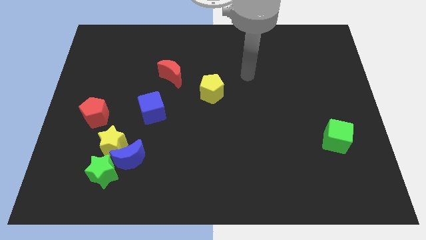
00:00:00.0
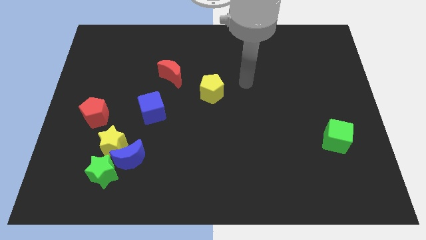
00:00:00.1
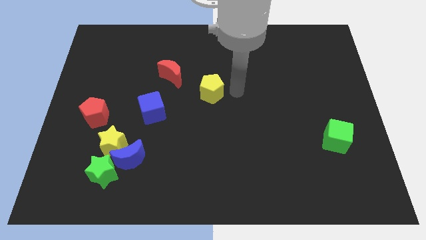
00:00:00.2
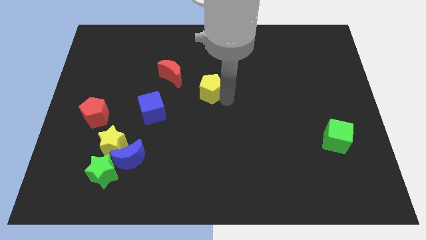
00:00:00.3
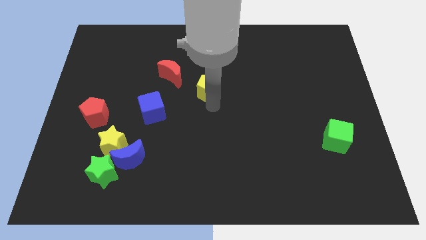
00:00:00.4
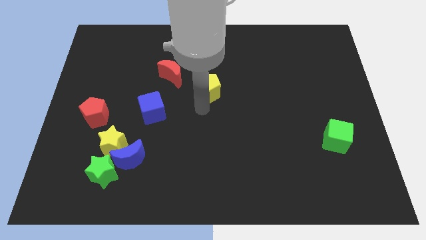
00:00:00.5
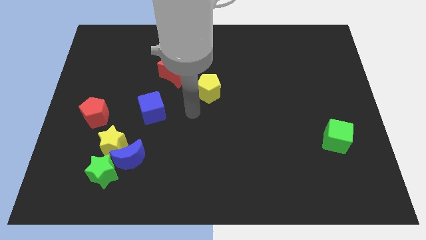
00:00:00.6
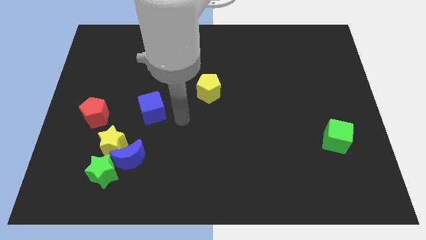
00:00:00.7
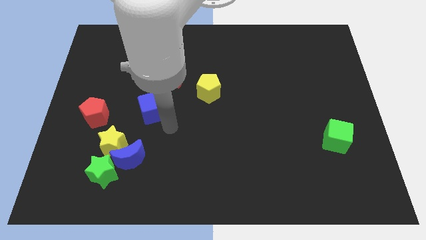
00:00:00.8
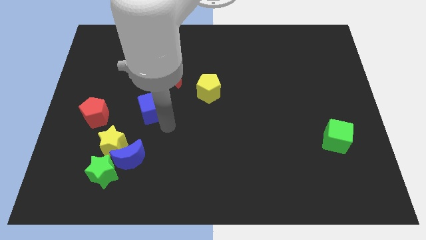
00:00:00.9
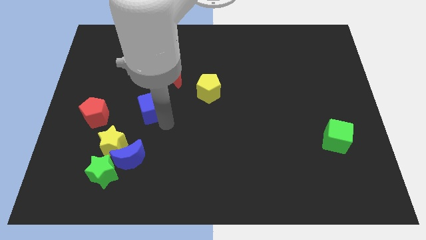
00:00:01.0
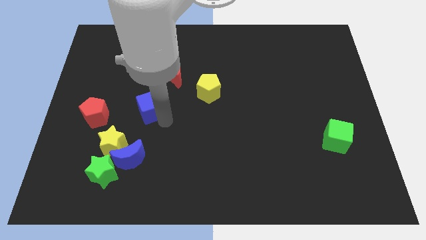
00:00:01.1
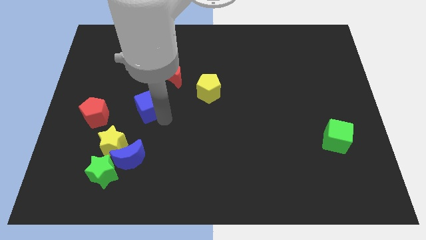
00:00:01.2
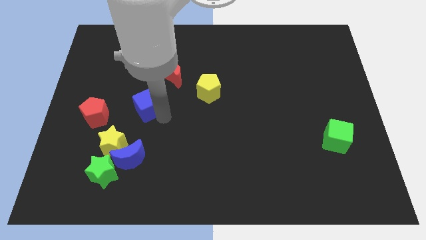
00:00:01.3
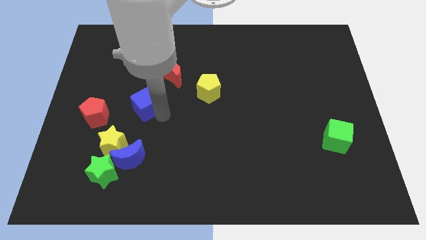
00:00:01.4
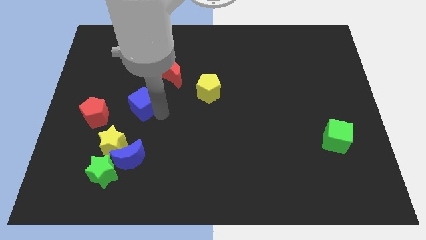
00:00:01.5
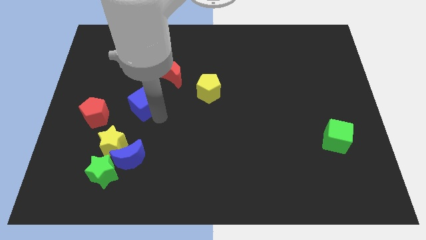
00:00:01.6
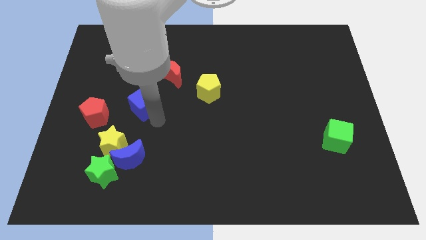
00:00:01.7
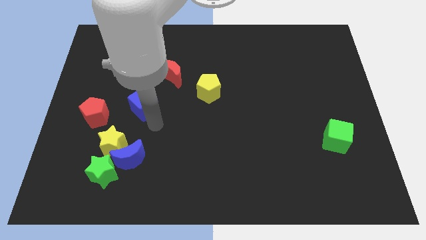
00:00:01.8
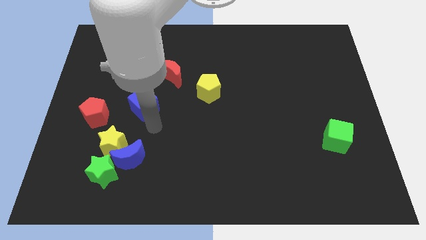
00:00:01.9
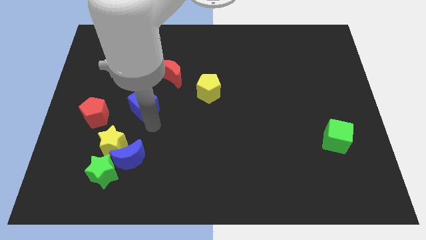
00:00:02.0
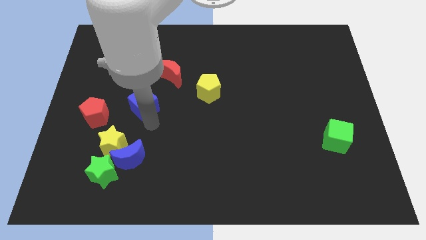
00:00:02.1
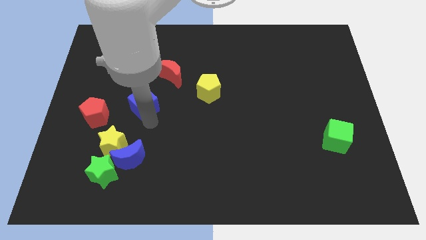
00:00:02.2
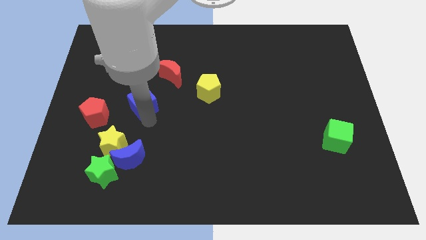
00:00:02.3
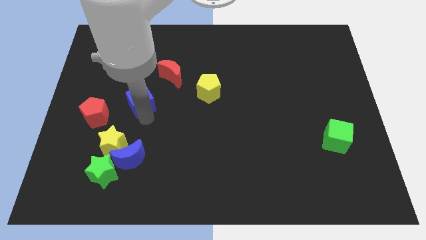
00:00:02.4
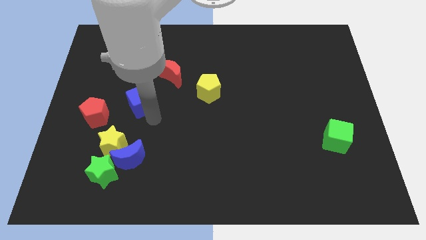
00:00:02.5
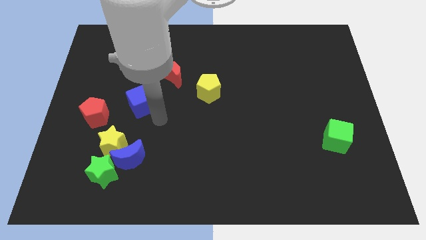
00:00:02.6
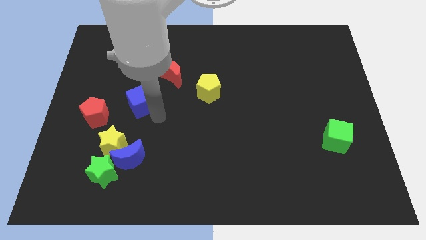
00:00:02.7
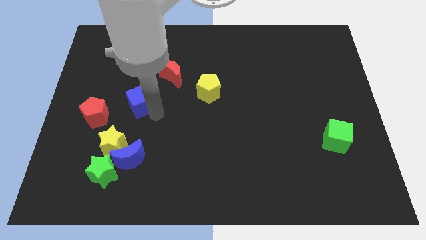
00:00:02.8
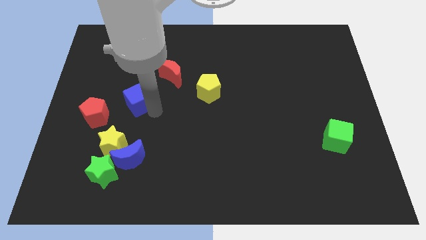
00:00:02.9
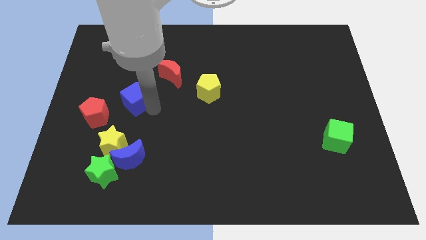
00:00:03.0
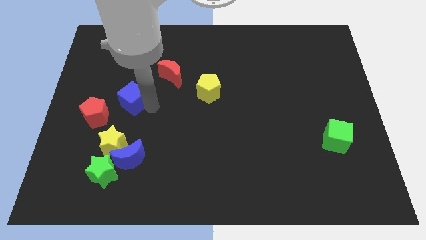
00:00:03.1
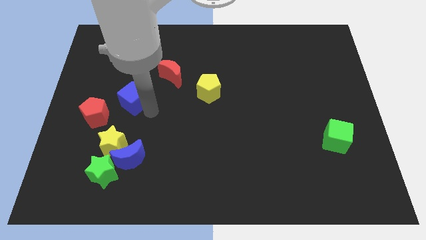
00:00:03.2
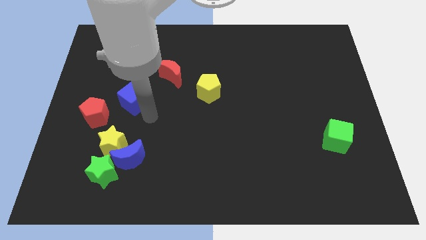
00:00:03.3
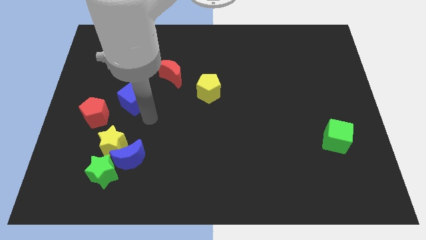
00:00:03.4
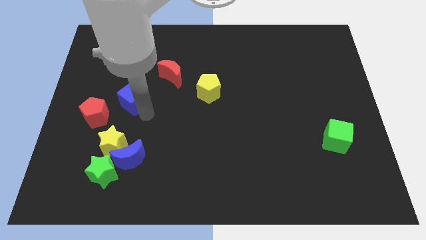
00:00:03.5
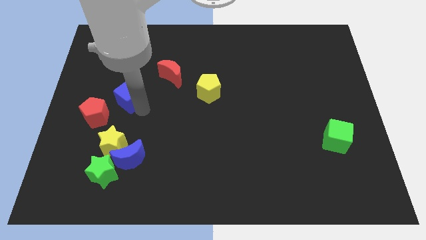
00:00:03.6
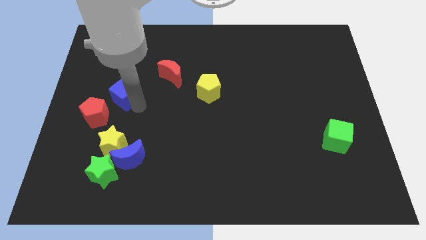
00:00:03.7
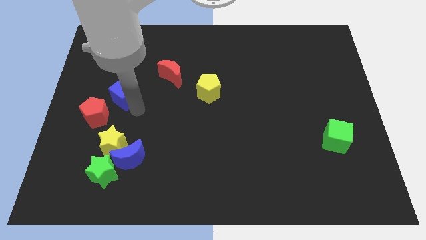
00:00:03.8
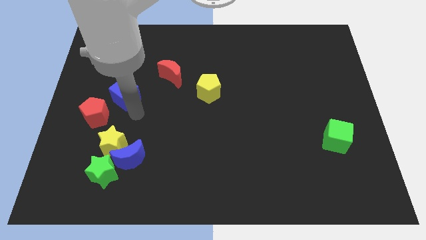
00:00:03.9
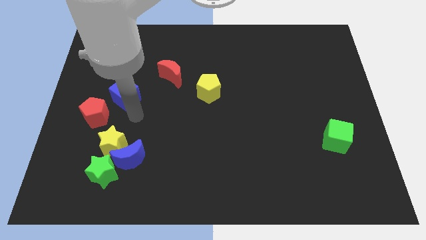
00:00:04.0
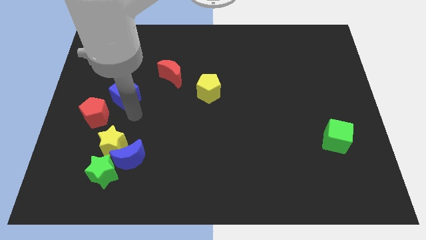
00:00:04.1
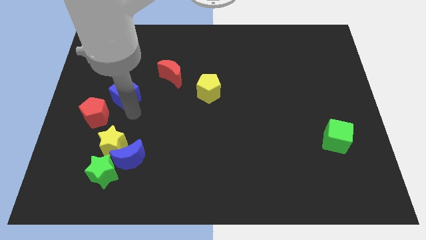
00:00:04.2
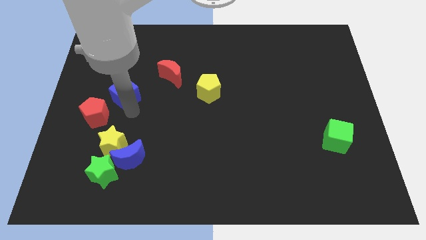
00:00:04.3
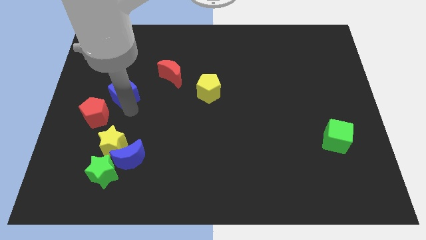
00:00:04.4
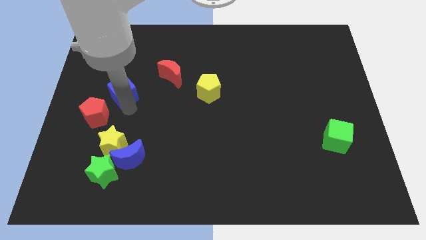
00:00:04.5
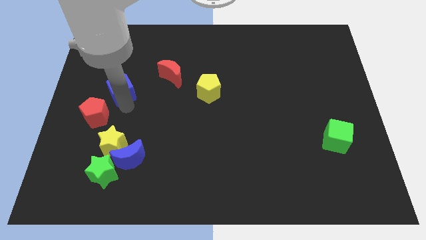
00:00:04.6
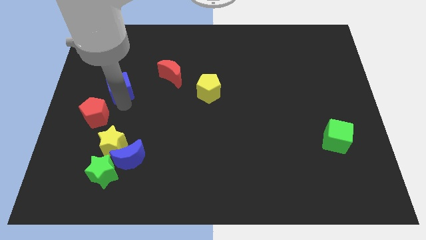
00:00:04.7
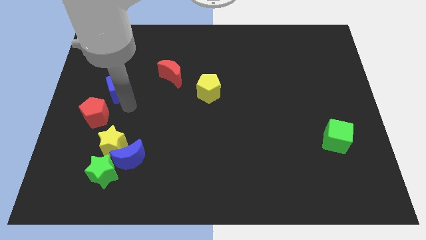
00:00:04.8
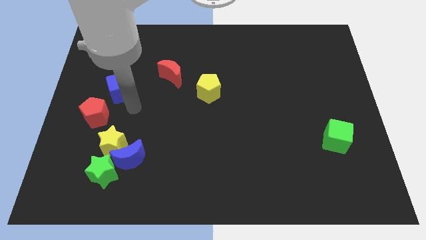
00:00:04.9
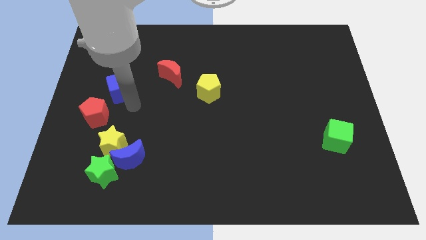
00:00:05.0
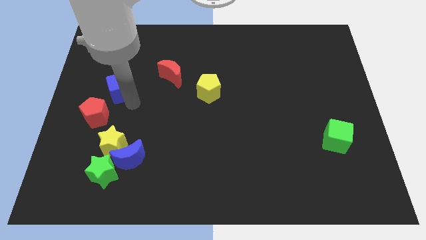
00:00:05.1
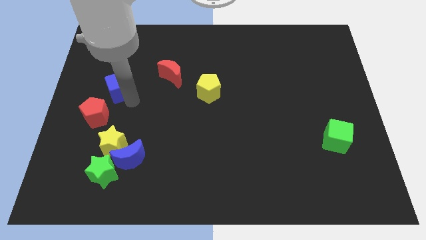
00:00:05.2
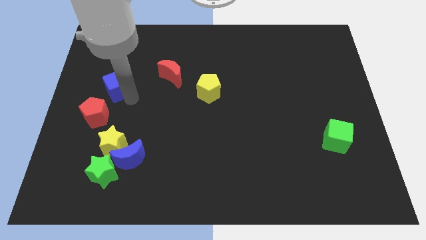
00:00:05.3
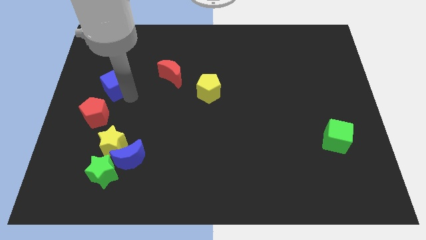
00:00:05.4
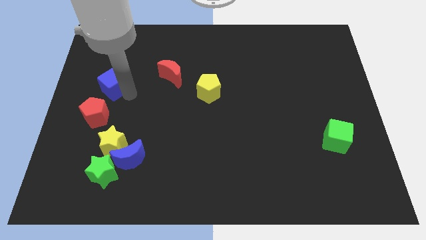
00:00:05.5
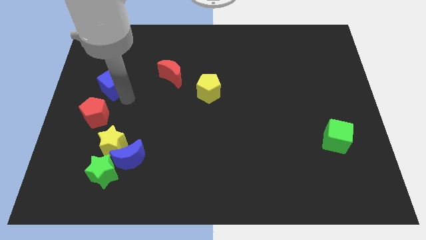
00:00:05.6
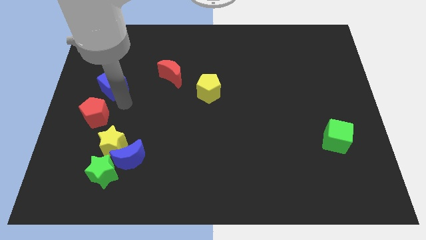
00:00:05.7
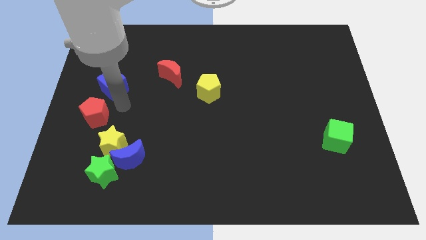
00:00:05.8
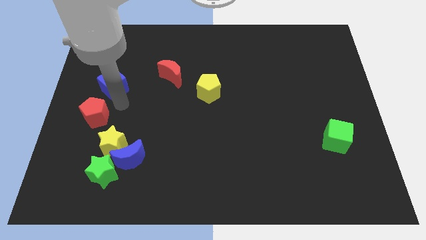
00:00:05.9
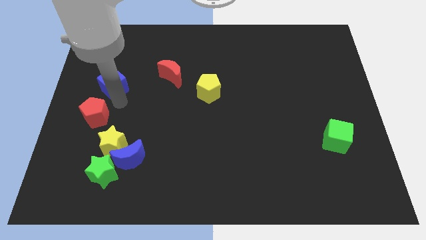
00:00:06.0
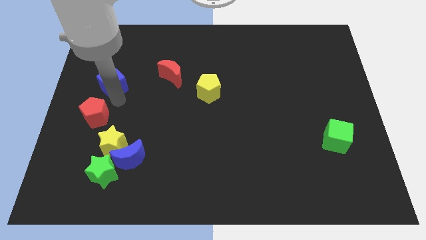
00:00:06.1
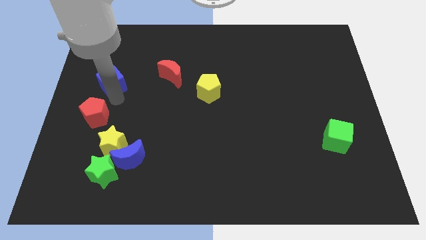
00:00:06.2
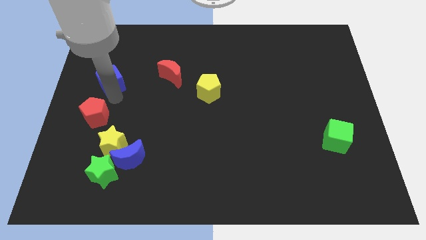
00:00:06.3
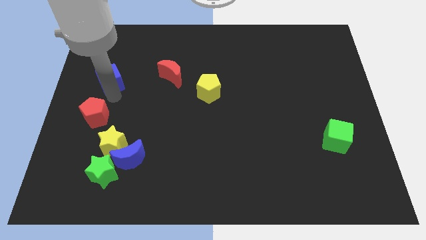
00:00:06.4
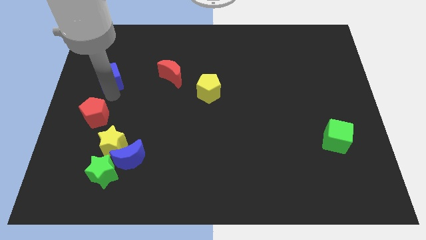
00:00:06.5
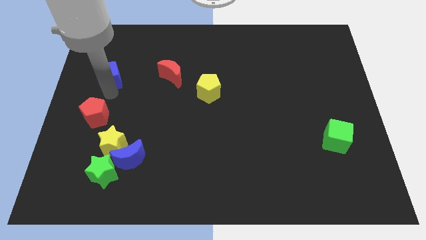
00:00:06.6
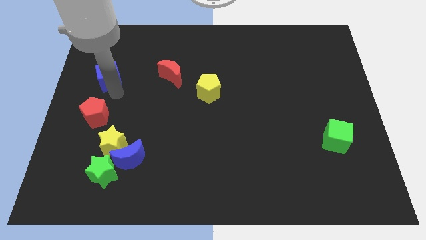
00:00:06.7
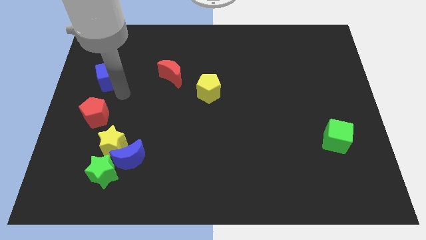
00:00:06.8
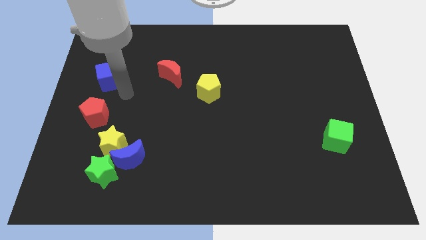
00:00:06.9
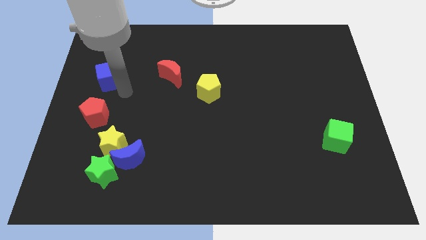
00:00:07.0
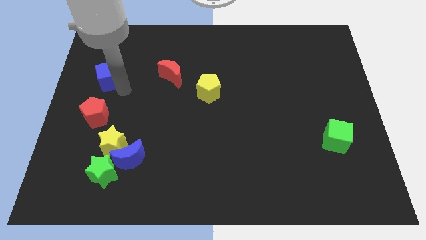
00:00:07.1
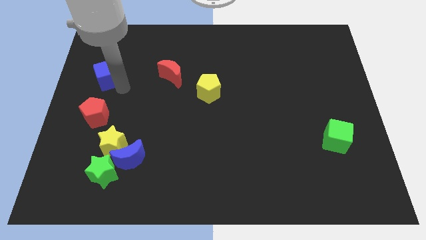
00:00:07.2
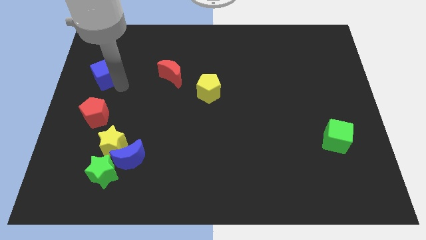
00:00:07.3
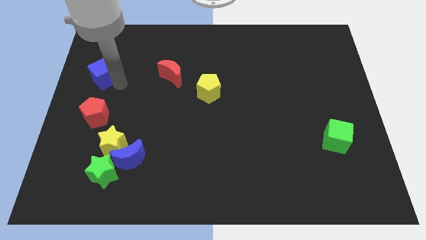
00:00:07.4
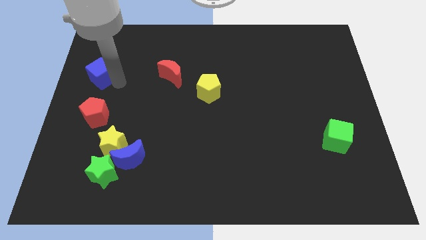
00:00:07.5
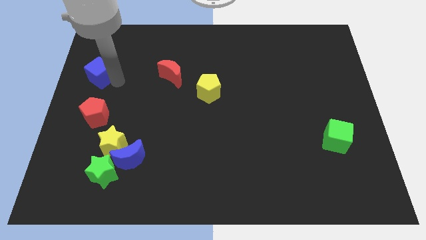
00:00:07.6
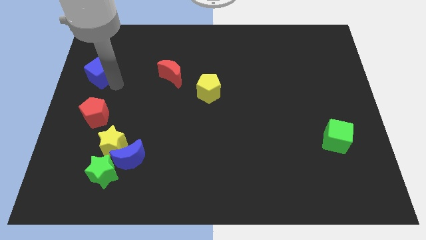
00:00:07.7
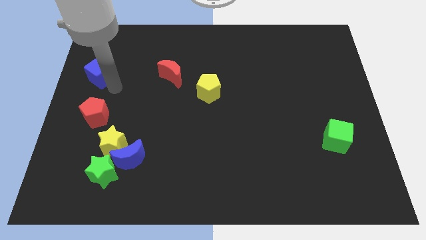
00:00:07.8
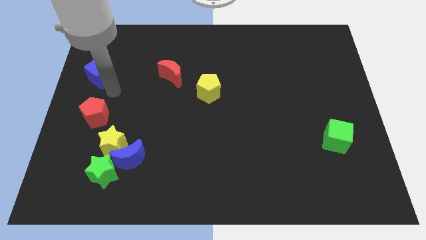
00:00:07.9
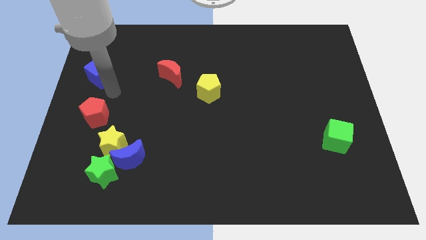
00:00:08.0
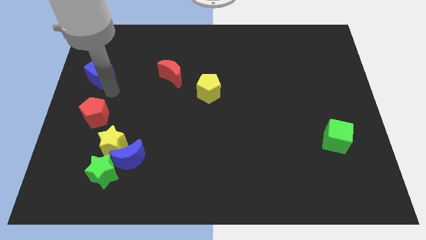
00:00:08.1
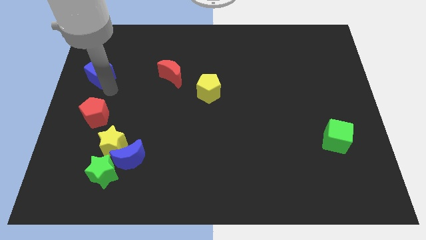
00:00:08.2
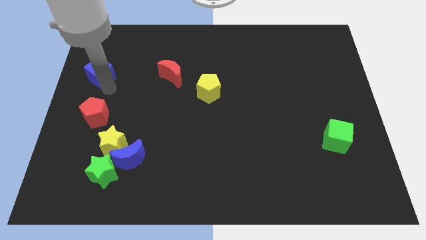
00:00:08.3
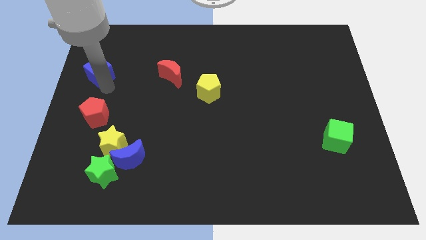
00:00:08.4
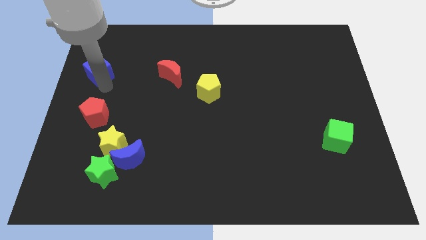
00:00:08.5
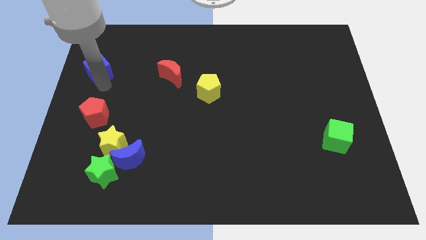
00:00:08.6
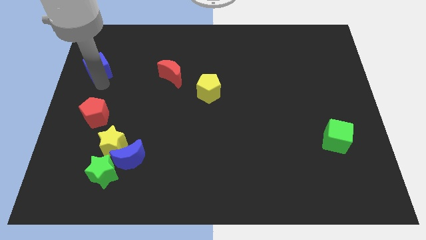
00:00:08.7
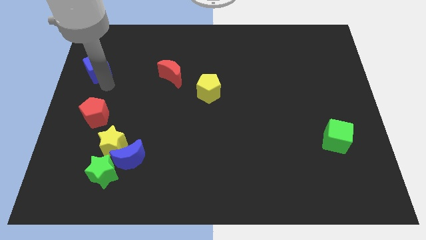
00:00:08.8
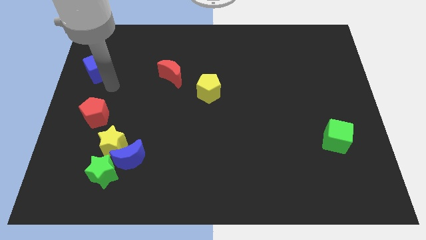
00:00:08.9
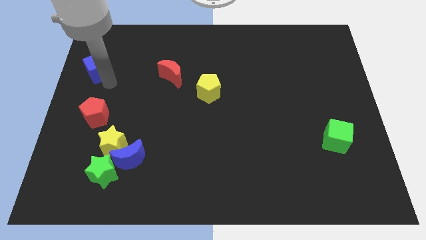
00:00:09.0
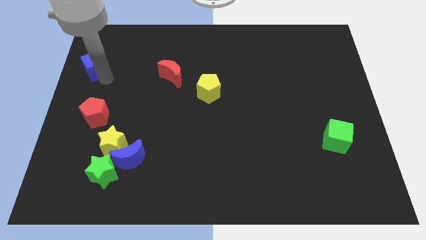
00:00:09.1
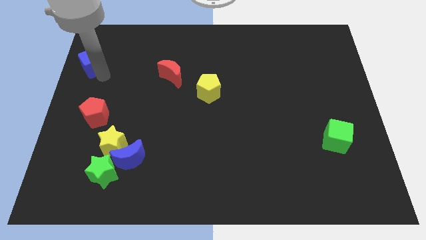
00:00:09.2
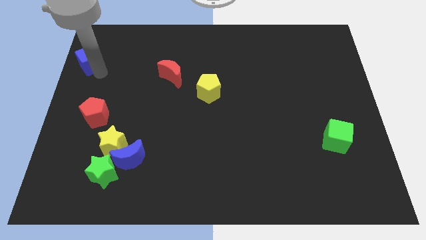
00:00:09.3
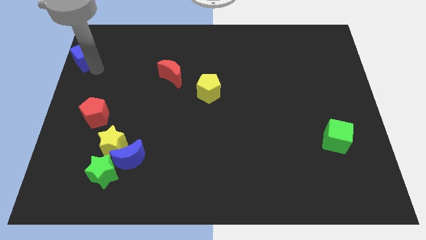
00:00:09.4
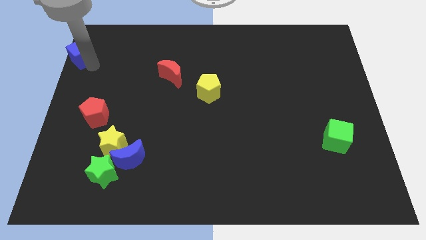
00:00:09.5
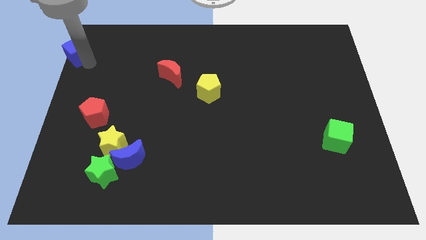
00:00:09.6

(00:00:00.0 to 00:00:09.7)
put the blue cube to the upper left corner
